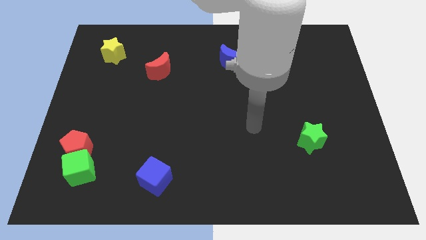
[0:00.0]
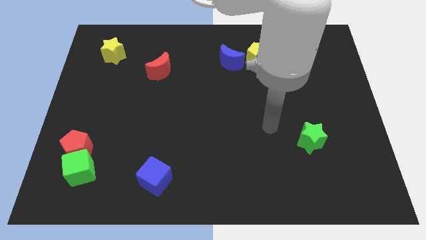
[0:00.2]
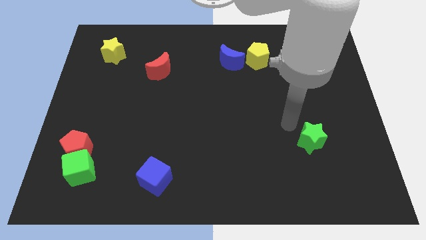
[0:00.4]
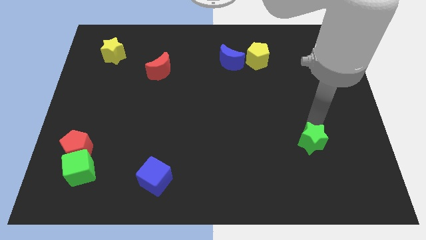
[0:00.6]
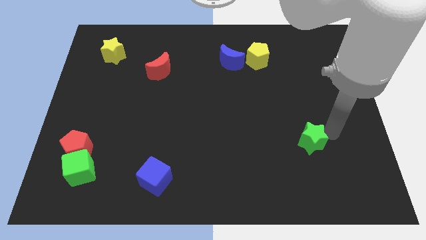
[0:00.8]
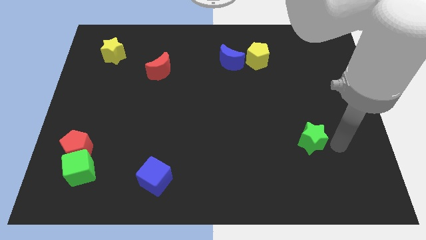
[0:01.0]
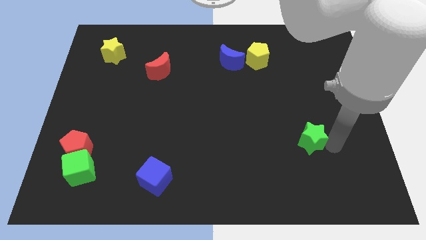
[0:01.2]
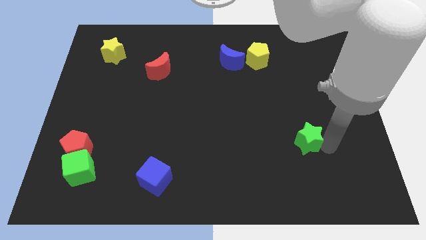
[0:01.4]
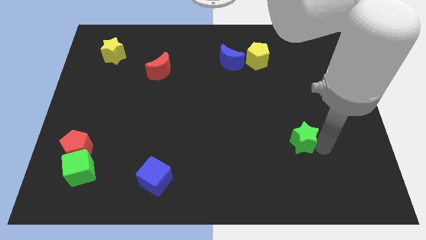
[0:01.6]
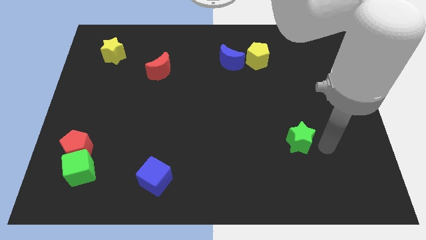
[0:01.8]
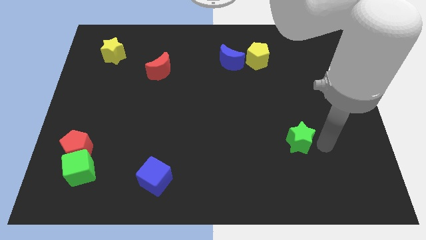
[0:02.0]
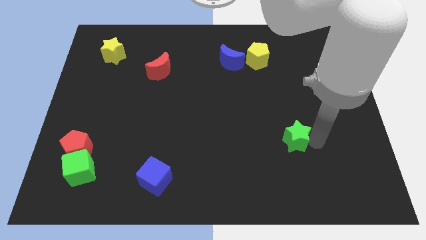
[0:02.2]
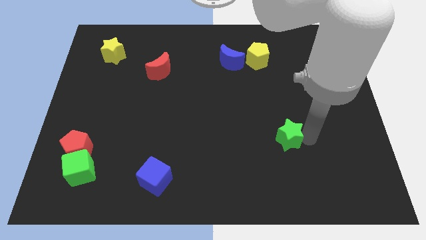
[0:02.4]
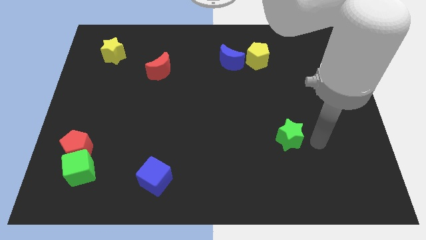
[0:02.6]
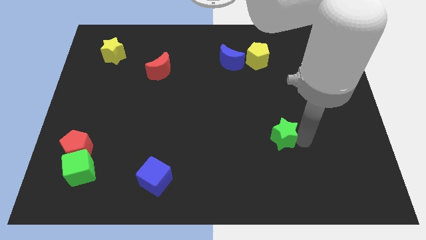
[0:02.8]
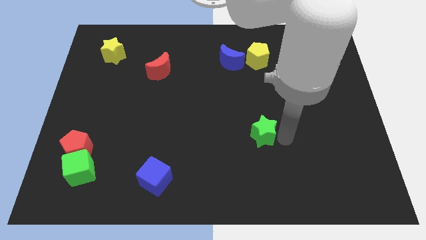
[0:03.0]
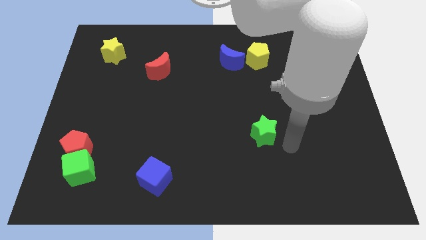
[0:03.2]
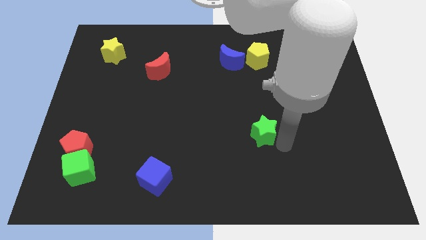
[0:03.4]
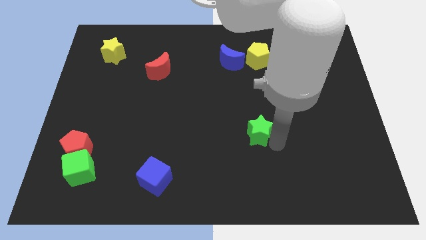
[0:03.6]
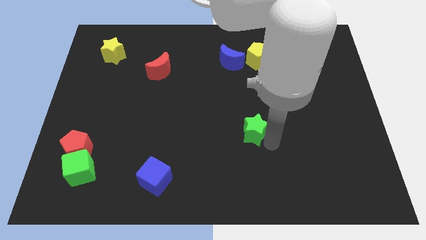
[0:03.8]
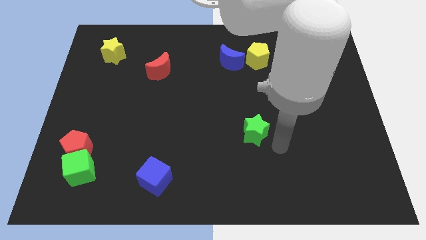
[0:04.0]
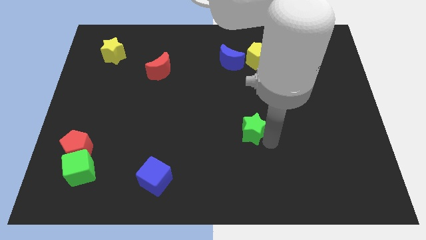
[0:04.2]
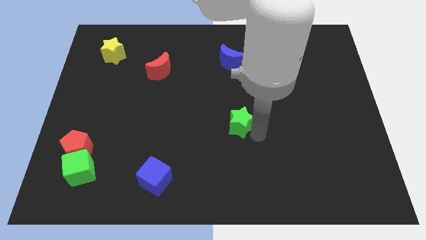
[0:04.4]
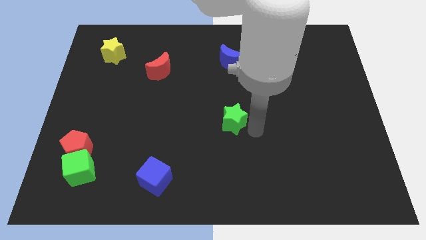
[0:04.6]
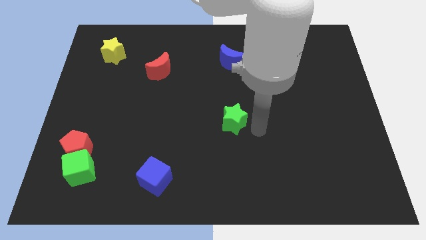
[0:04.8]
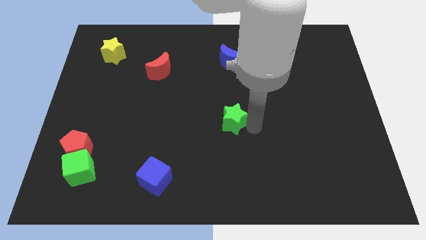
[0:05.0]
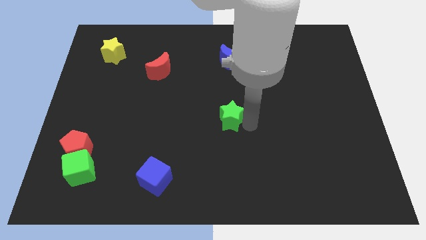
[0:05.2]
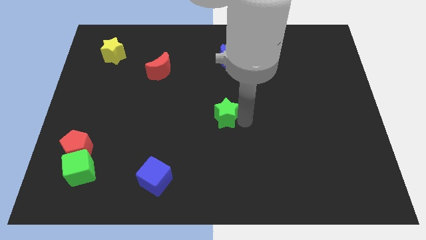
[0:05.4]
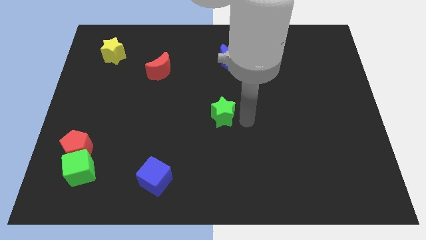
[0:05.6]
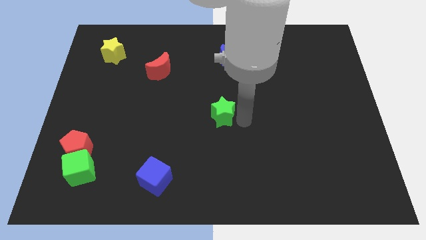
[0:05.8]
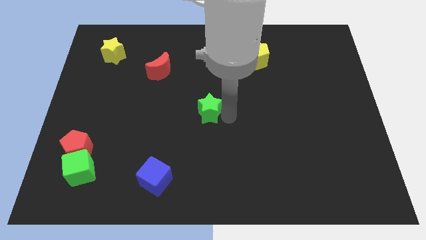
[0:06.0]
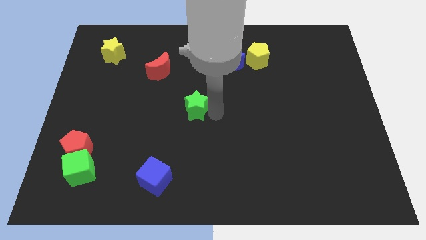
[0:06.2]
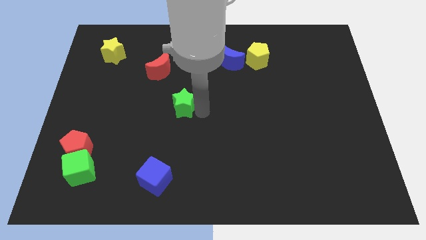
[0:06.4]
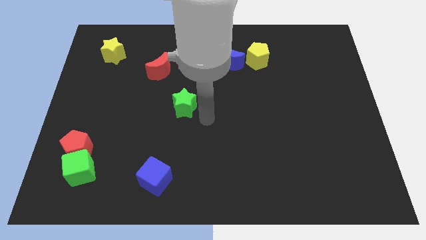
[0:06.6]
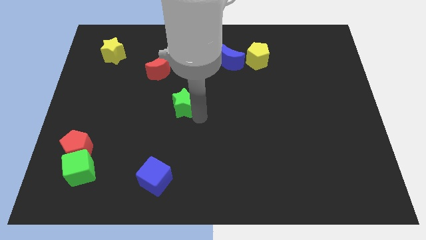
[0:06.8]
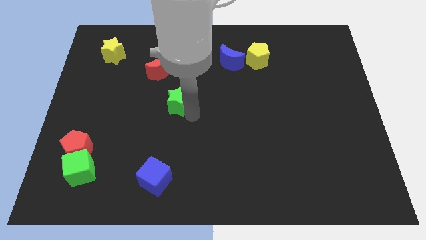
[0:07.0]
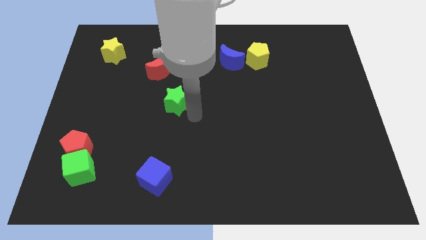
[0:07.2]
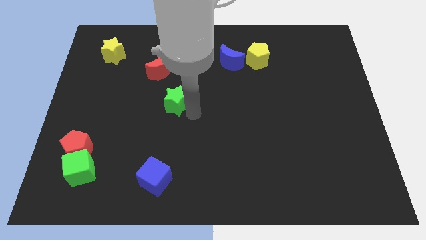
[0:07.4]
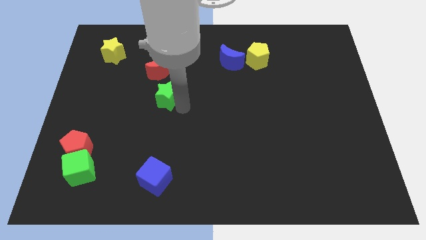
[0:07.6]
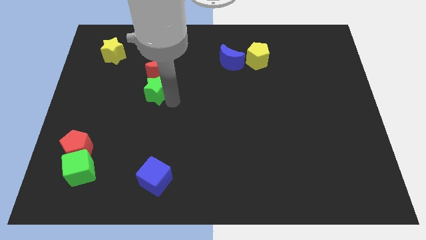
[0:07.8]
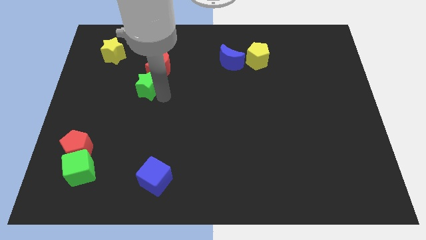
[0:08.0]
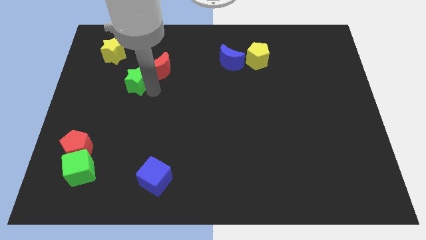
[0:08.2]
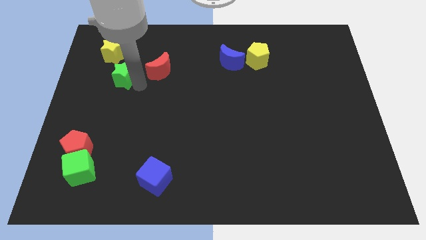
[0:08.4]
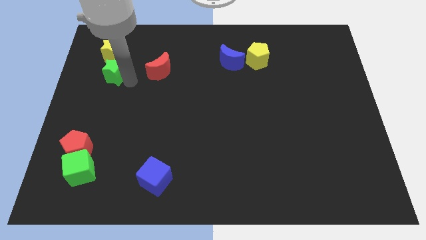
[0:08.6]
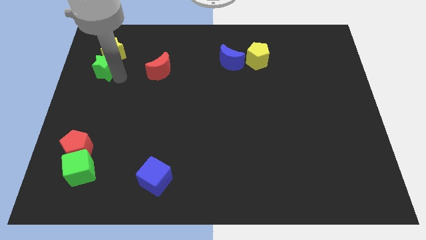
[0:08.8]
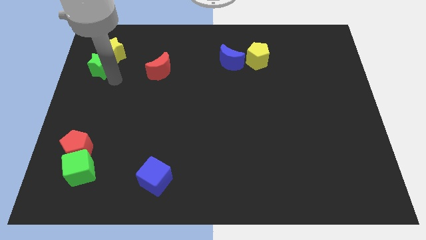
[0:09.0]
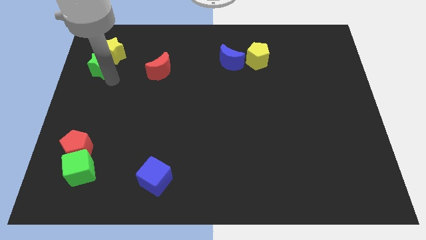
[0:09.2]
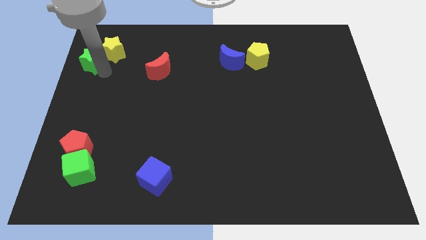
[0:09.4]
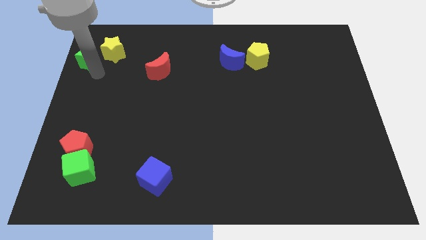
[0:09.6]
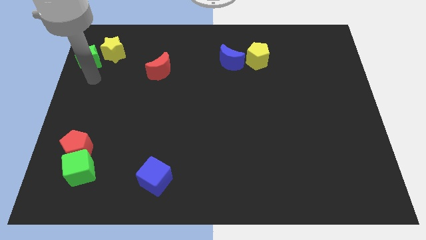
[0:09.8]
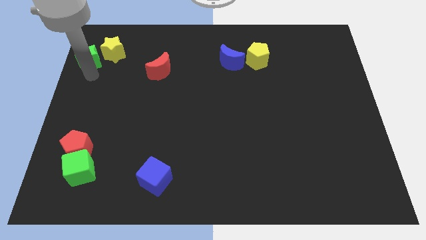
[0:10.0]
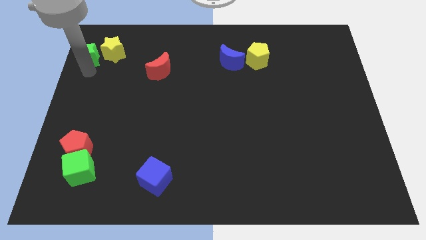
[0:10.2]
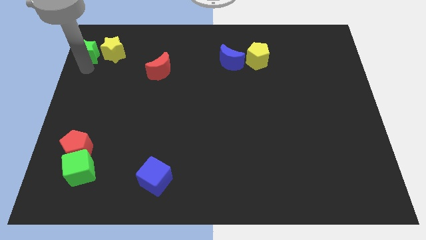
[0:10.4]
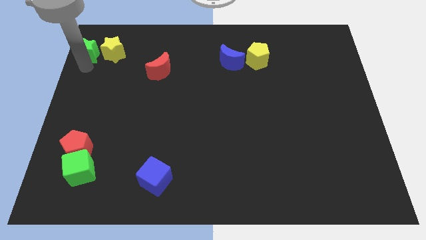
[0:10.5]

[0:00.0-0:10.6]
move the green star to the top left

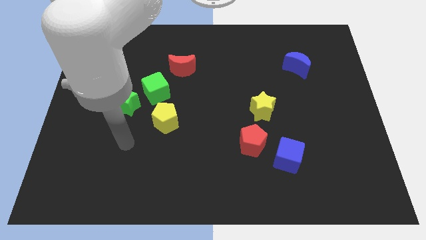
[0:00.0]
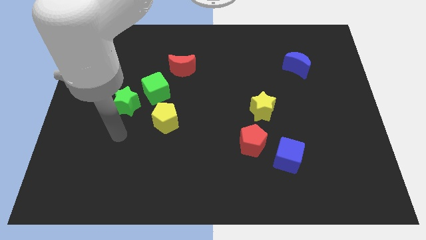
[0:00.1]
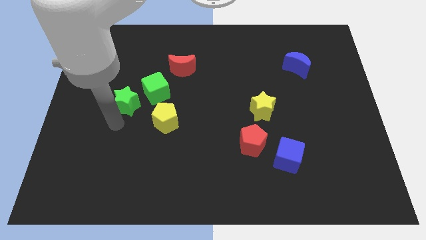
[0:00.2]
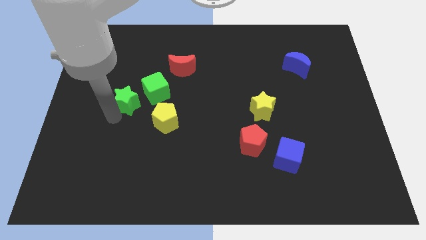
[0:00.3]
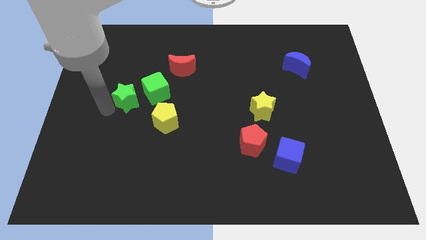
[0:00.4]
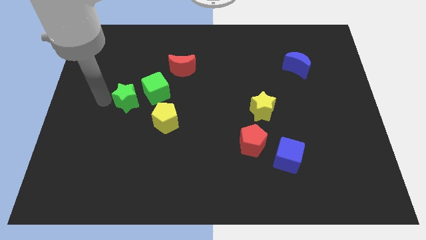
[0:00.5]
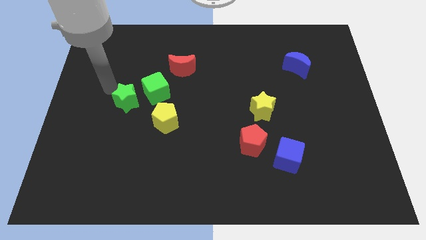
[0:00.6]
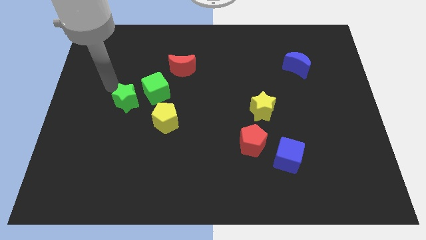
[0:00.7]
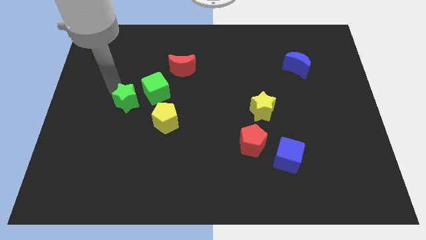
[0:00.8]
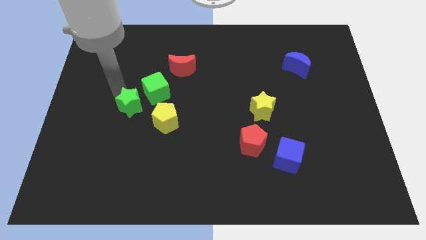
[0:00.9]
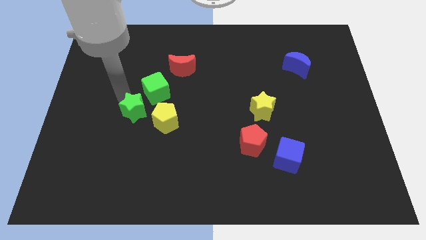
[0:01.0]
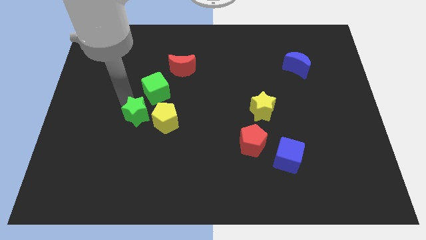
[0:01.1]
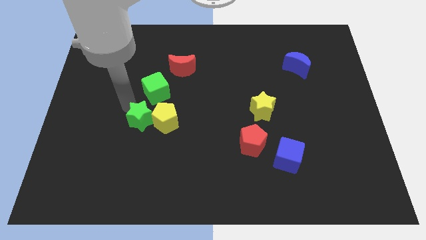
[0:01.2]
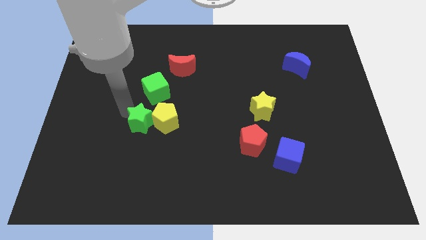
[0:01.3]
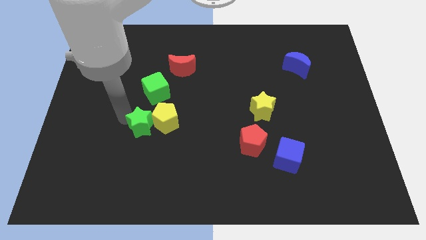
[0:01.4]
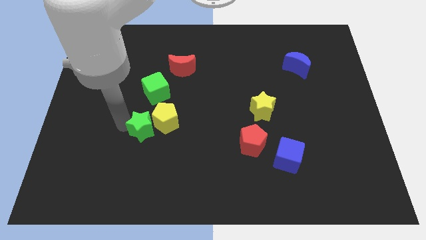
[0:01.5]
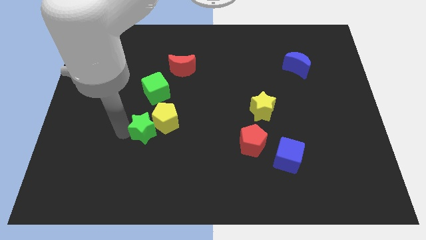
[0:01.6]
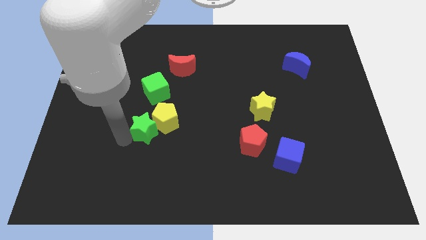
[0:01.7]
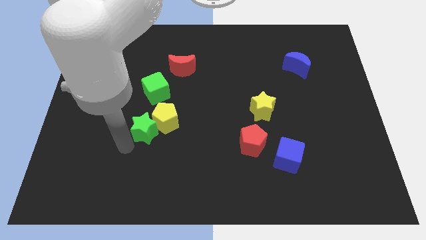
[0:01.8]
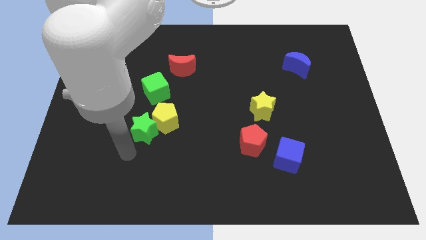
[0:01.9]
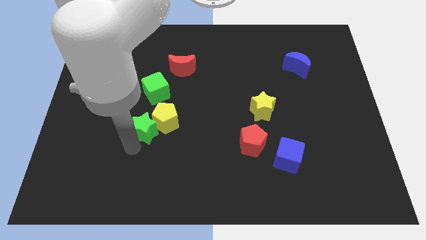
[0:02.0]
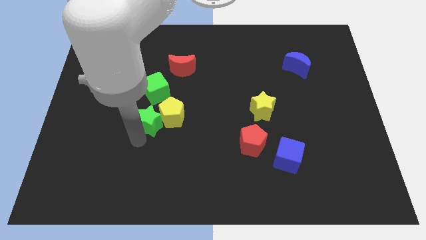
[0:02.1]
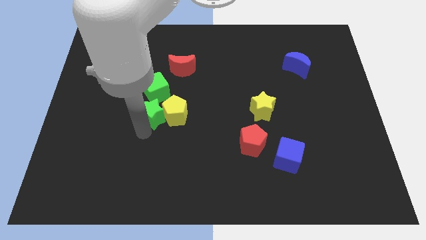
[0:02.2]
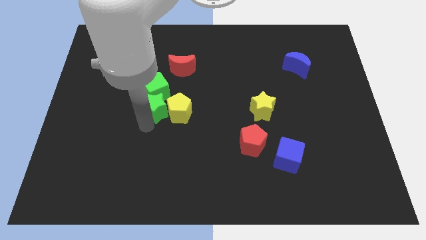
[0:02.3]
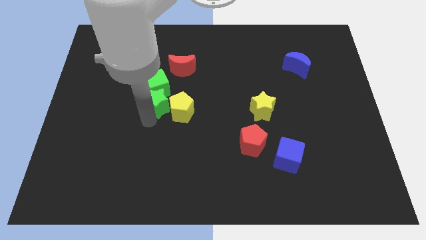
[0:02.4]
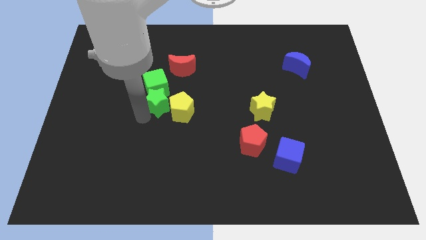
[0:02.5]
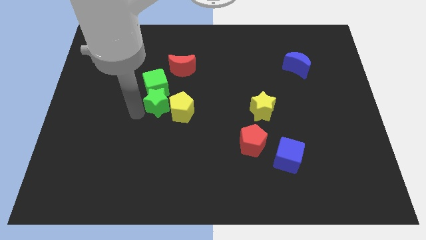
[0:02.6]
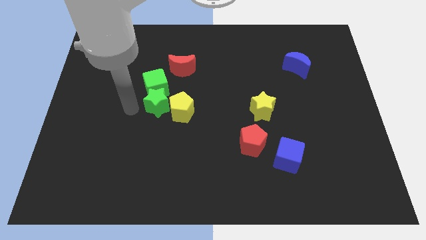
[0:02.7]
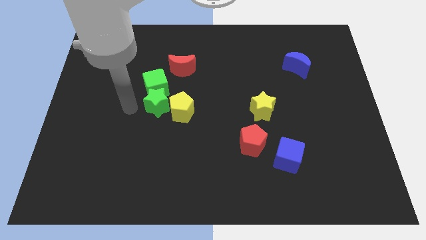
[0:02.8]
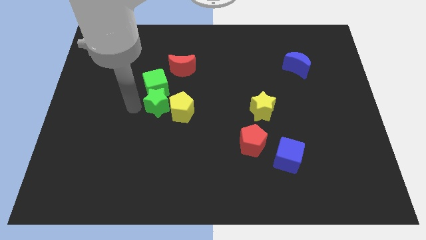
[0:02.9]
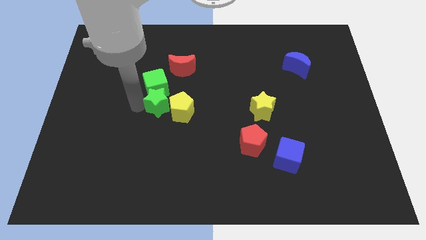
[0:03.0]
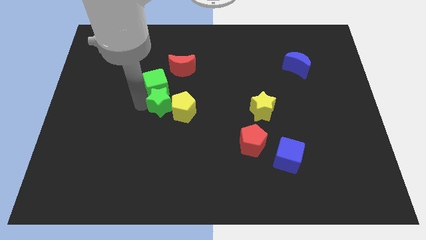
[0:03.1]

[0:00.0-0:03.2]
put the green star to the middle of the board
